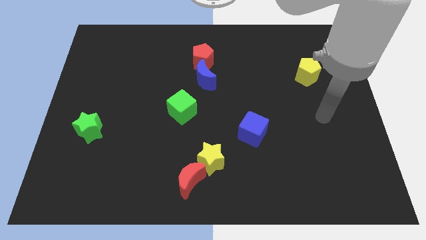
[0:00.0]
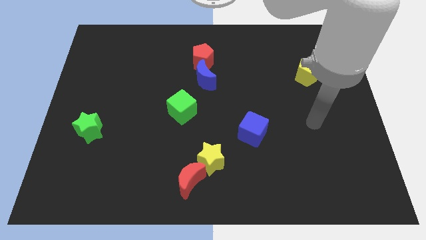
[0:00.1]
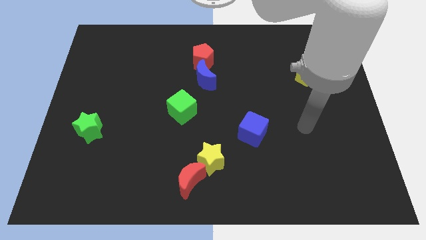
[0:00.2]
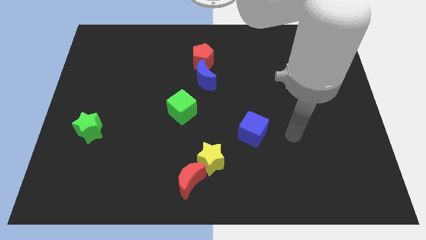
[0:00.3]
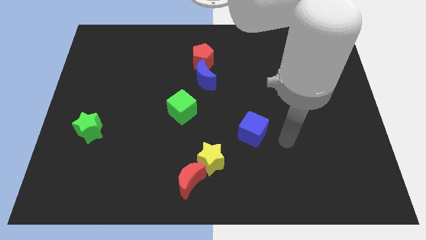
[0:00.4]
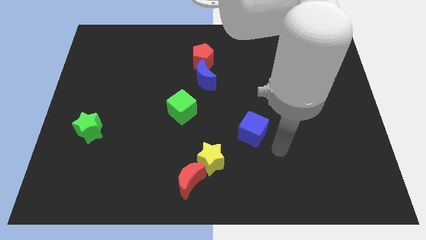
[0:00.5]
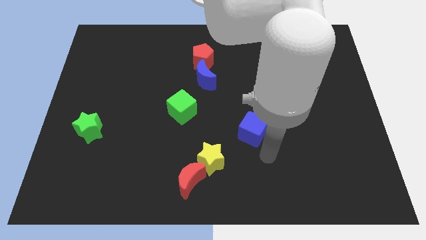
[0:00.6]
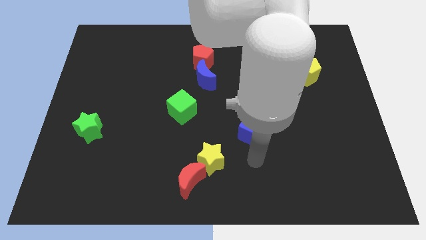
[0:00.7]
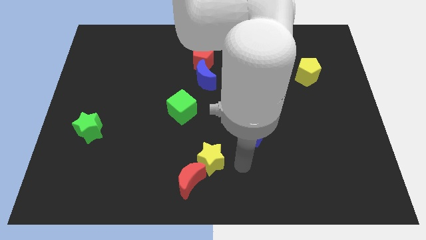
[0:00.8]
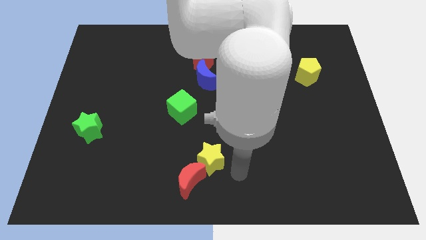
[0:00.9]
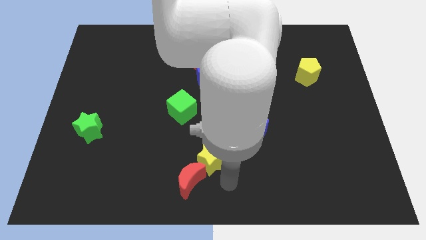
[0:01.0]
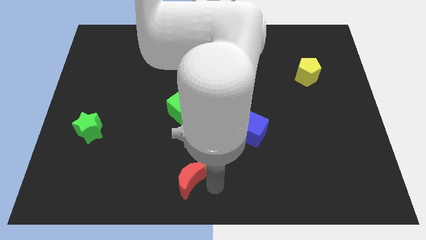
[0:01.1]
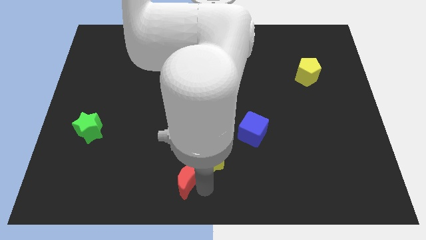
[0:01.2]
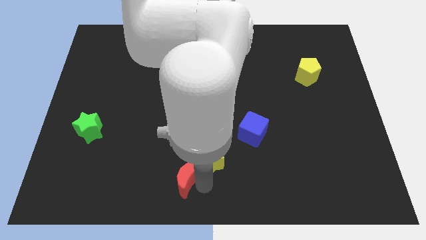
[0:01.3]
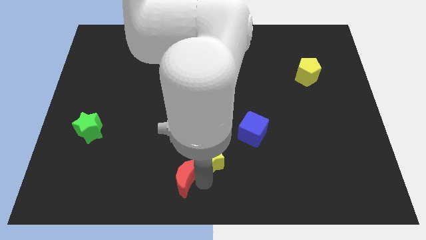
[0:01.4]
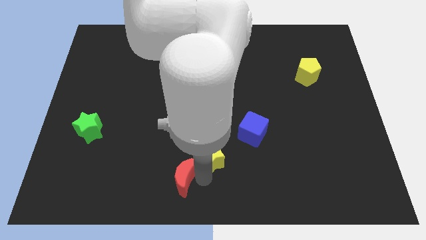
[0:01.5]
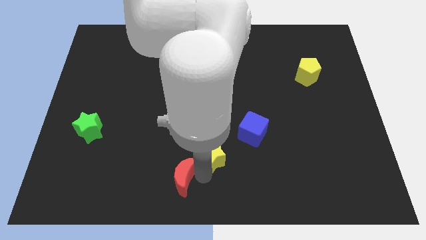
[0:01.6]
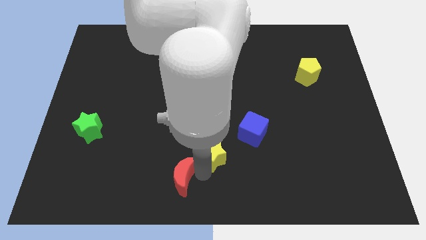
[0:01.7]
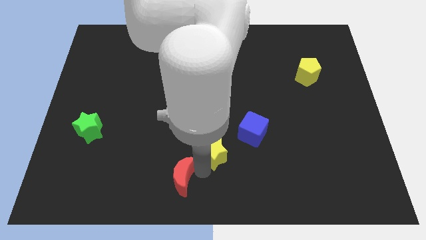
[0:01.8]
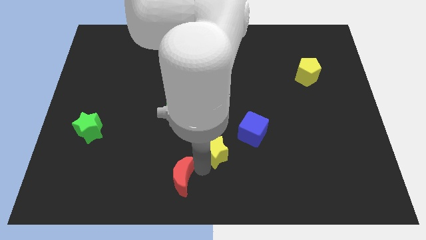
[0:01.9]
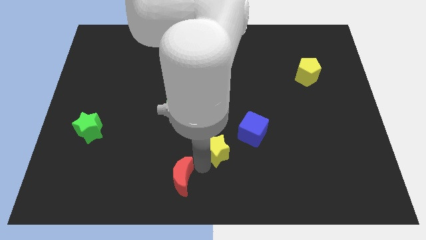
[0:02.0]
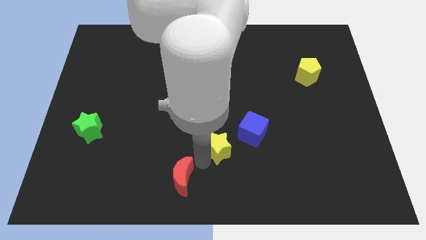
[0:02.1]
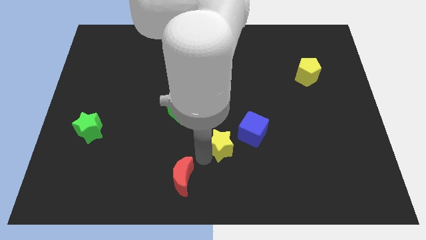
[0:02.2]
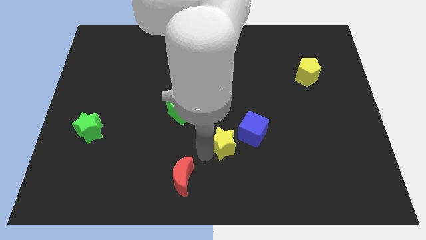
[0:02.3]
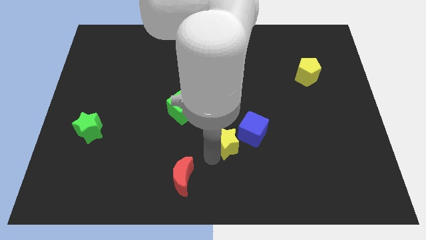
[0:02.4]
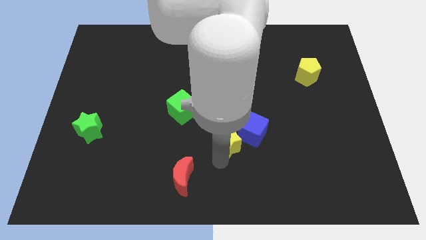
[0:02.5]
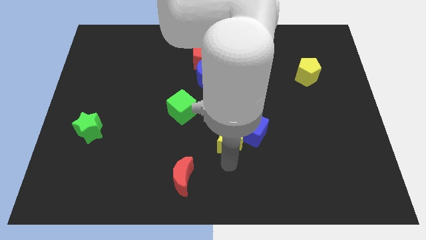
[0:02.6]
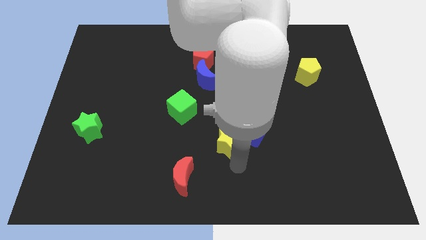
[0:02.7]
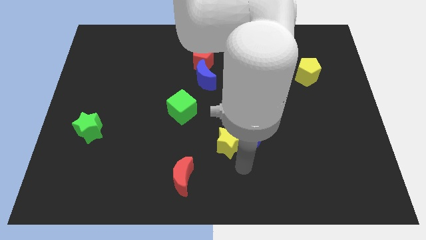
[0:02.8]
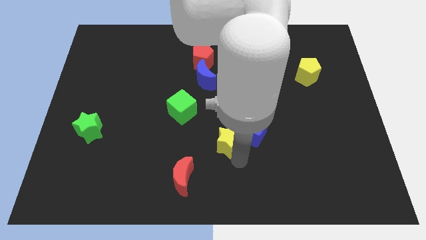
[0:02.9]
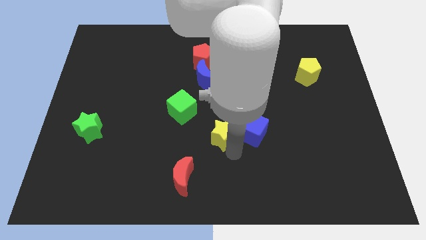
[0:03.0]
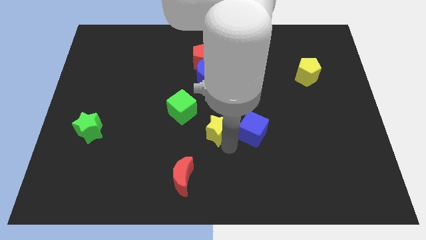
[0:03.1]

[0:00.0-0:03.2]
move the yellow star a little bit up

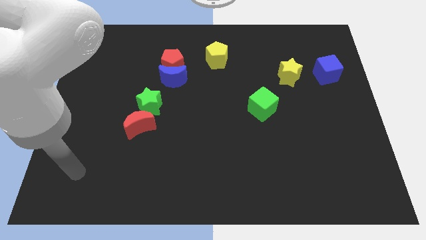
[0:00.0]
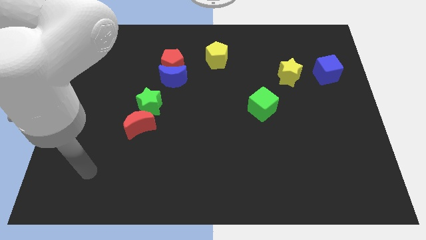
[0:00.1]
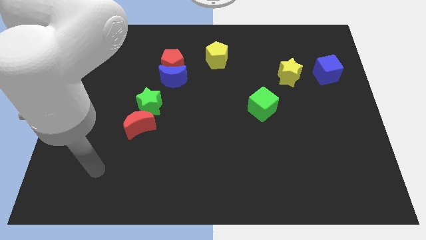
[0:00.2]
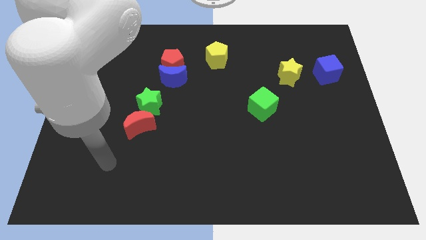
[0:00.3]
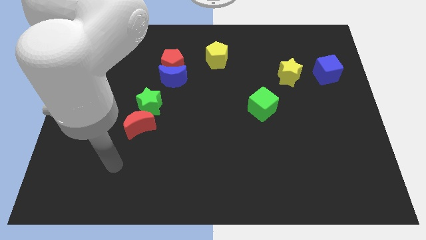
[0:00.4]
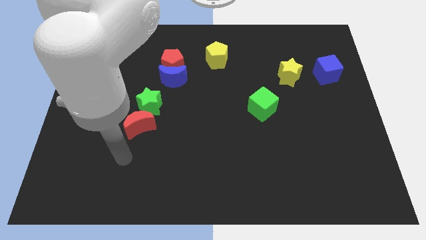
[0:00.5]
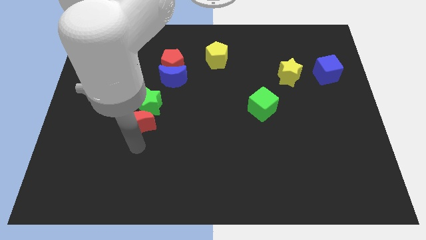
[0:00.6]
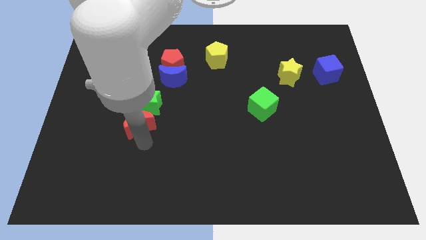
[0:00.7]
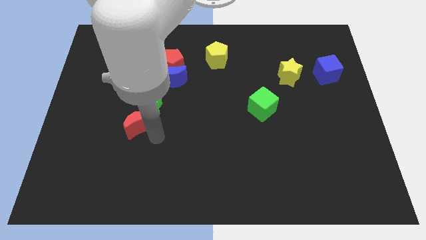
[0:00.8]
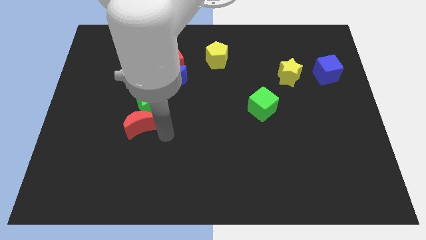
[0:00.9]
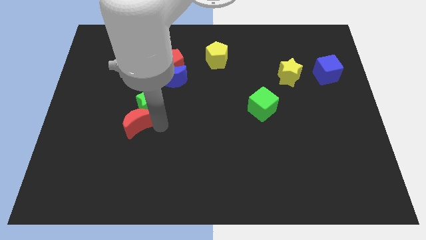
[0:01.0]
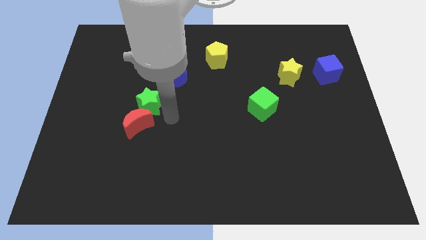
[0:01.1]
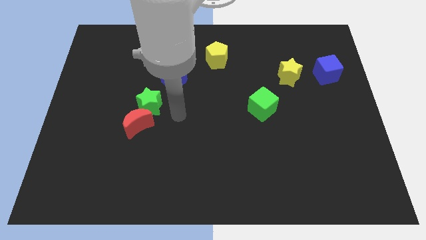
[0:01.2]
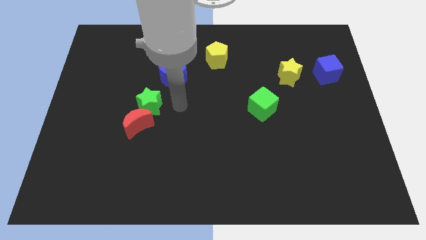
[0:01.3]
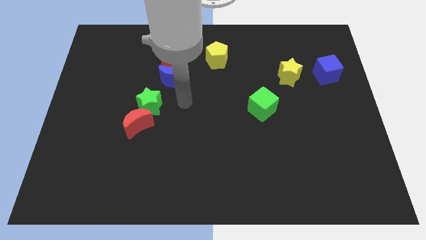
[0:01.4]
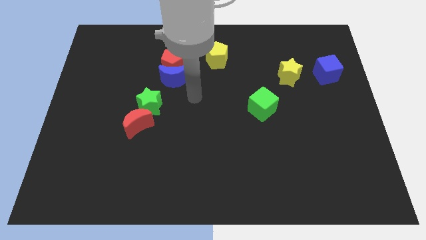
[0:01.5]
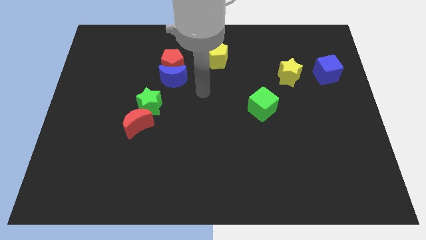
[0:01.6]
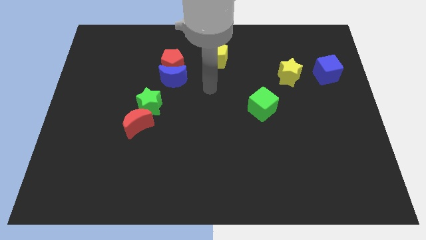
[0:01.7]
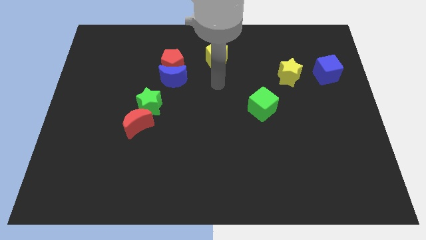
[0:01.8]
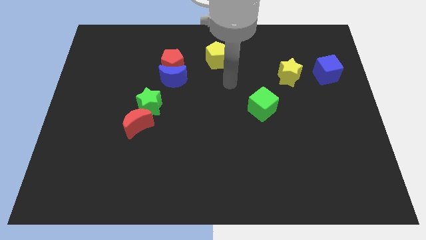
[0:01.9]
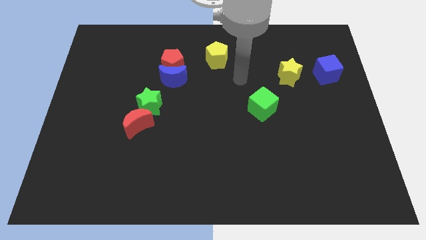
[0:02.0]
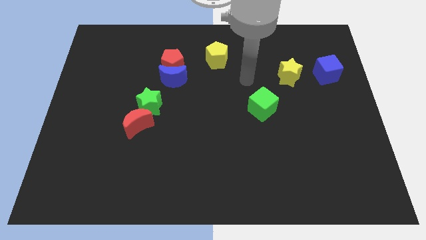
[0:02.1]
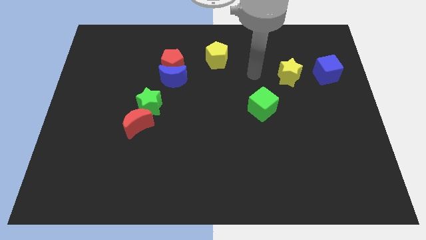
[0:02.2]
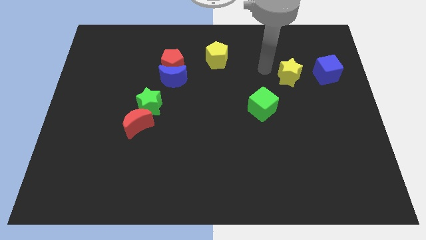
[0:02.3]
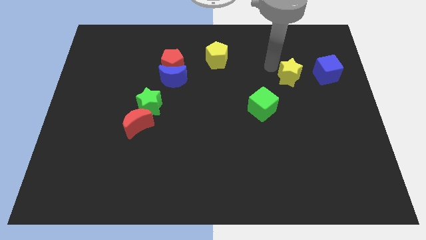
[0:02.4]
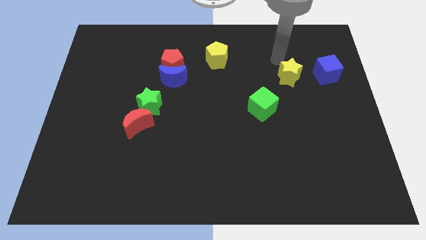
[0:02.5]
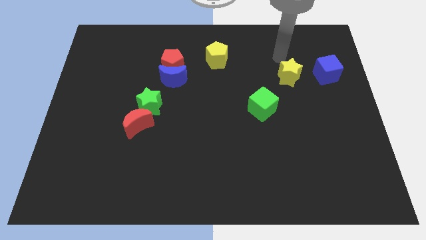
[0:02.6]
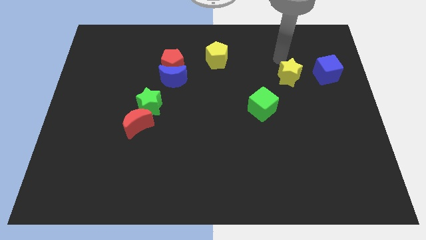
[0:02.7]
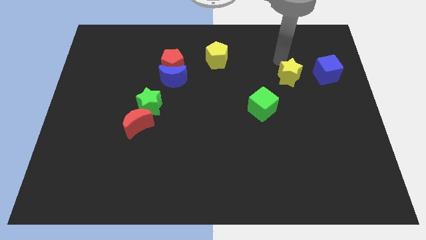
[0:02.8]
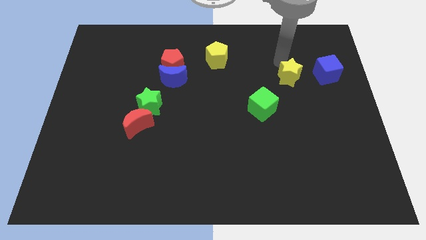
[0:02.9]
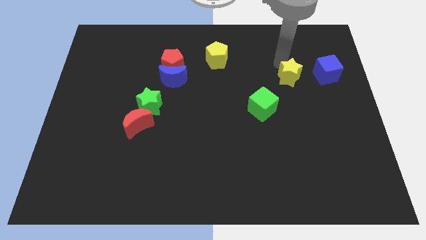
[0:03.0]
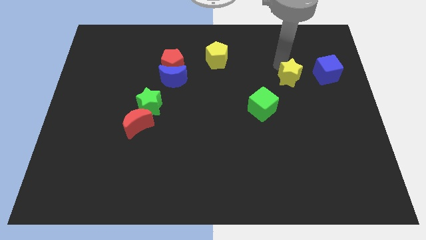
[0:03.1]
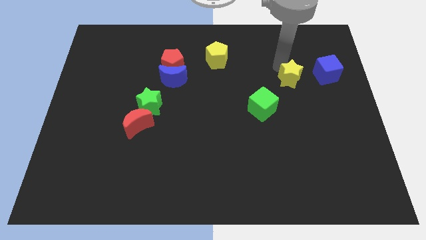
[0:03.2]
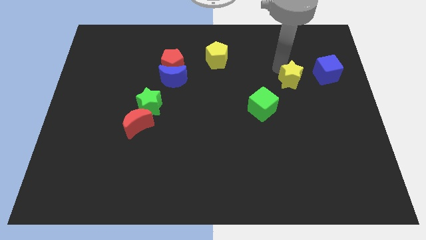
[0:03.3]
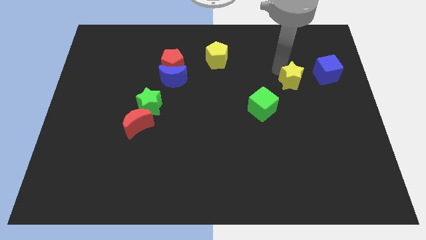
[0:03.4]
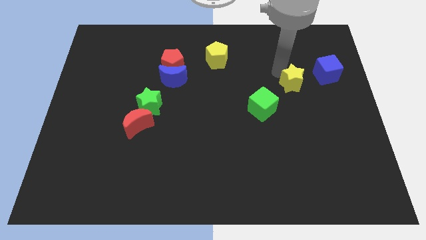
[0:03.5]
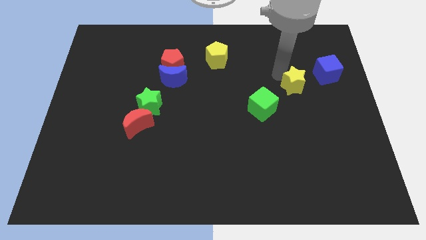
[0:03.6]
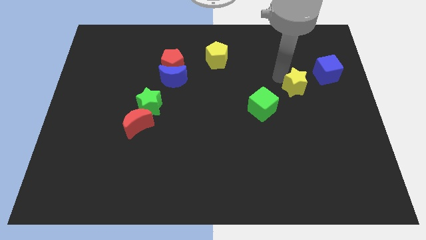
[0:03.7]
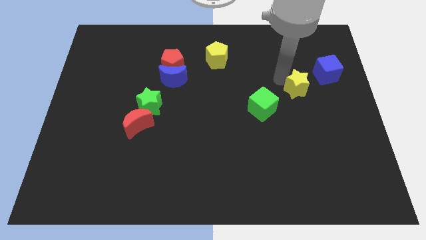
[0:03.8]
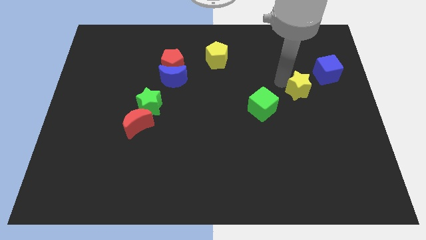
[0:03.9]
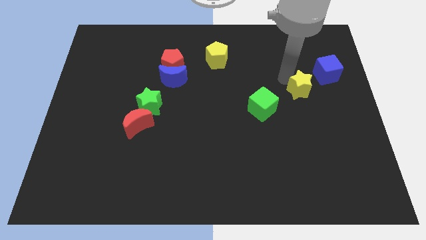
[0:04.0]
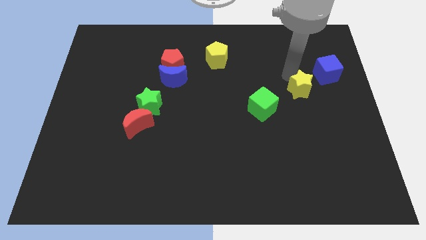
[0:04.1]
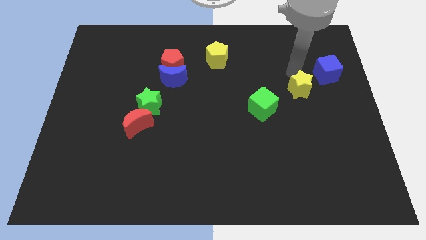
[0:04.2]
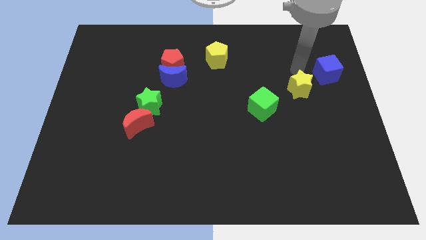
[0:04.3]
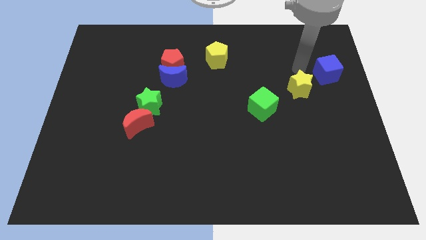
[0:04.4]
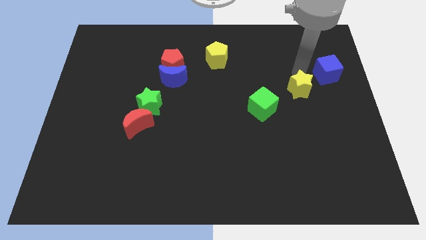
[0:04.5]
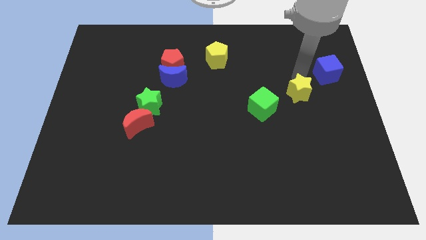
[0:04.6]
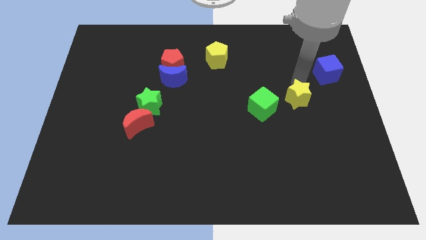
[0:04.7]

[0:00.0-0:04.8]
slightly move the yellow star downwards
